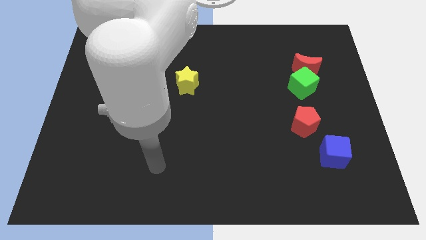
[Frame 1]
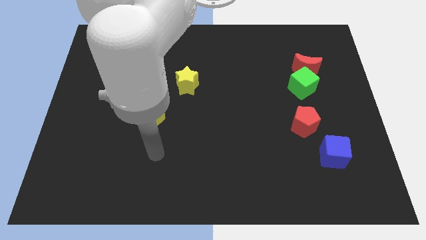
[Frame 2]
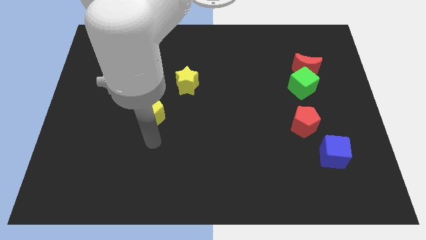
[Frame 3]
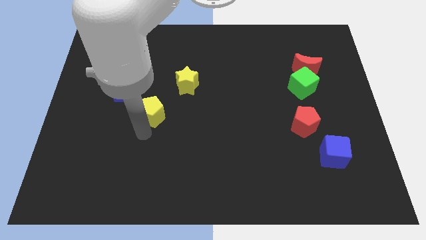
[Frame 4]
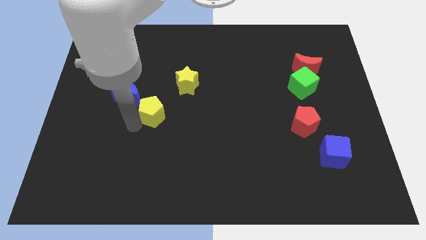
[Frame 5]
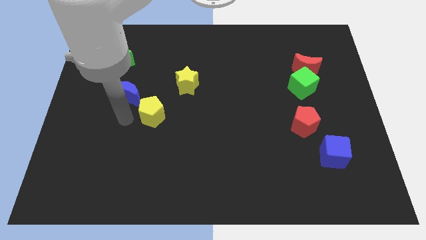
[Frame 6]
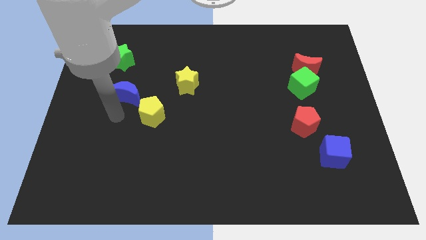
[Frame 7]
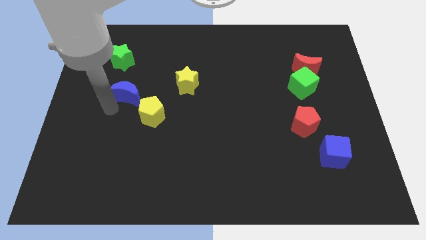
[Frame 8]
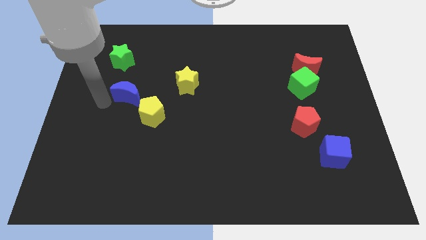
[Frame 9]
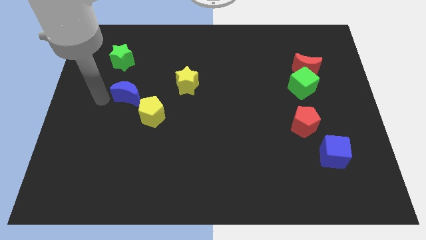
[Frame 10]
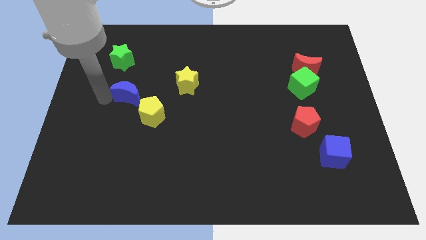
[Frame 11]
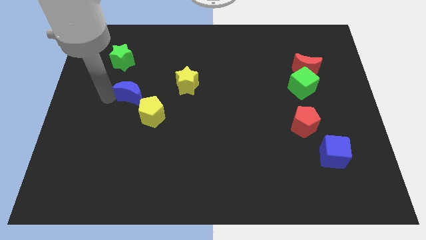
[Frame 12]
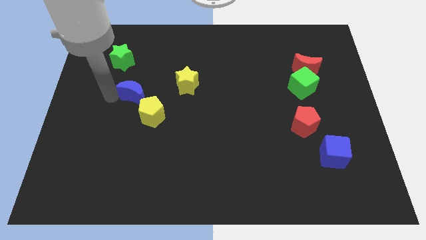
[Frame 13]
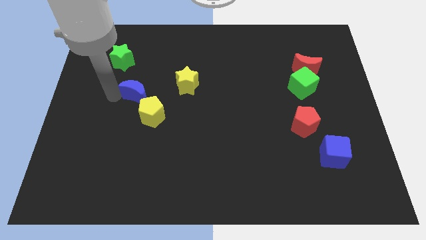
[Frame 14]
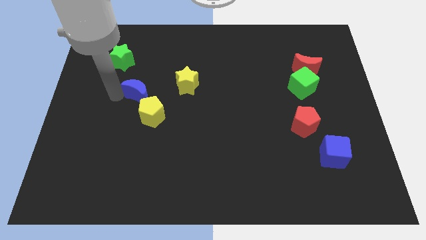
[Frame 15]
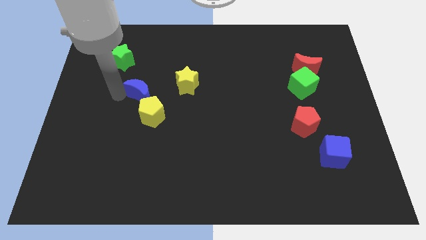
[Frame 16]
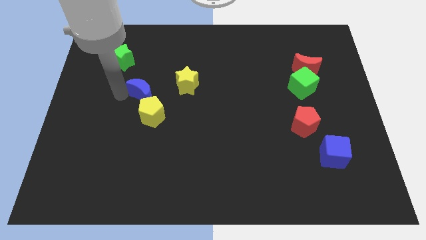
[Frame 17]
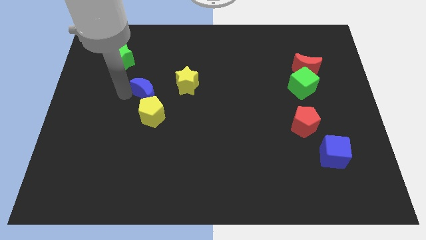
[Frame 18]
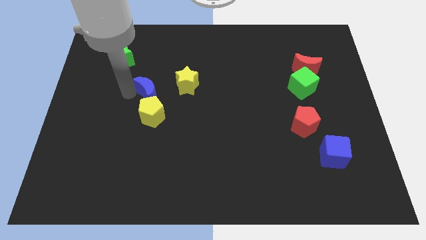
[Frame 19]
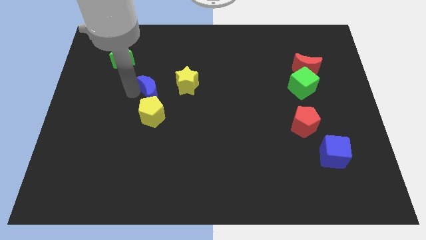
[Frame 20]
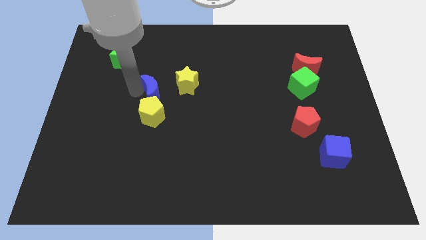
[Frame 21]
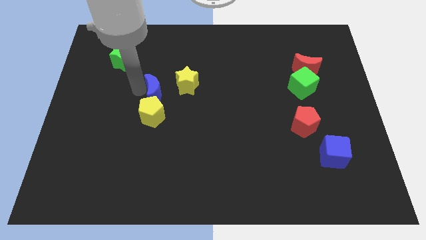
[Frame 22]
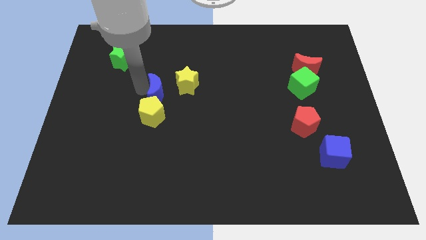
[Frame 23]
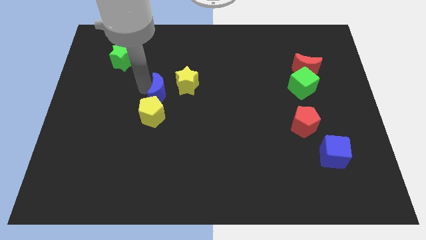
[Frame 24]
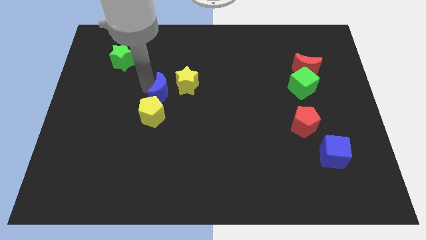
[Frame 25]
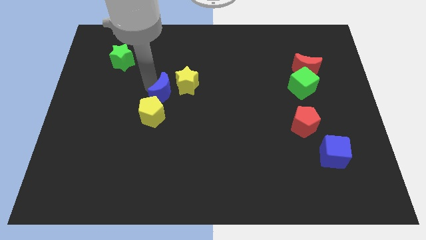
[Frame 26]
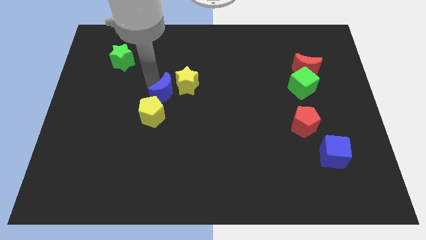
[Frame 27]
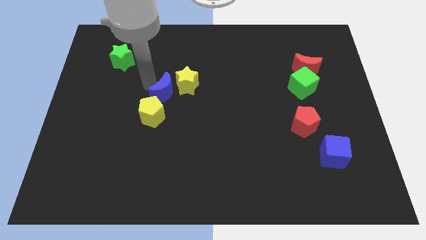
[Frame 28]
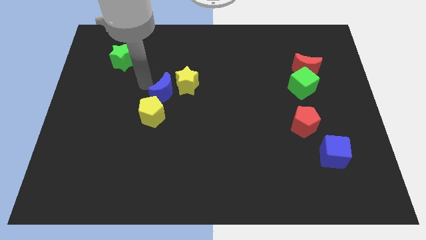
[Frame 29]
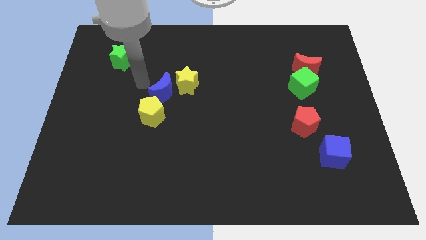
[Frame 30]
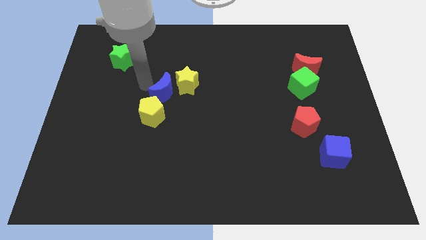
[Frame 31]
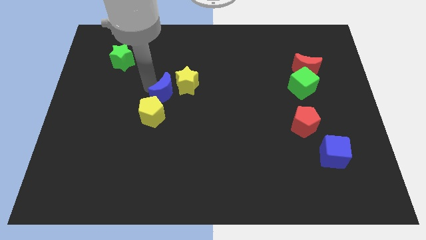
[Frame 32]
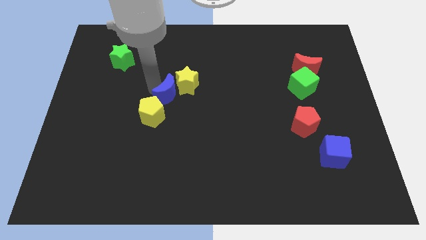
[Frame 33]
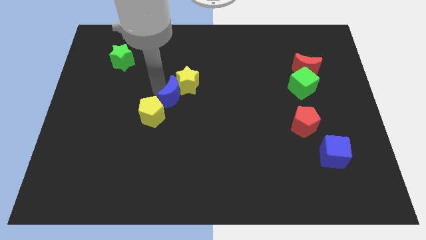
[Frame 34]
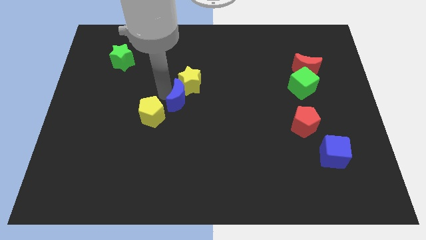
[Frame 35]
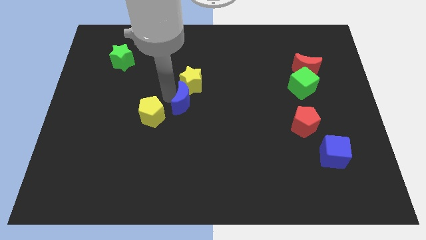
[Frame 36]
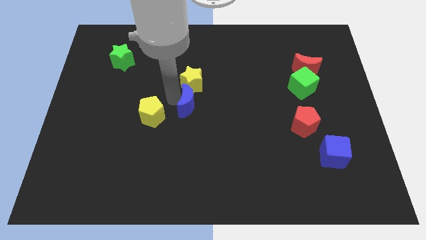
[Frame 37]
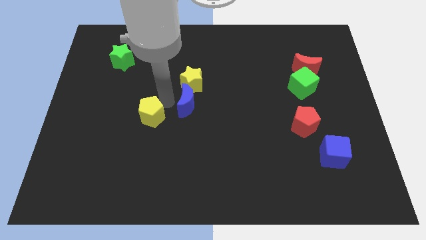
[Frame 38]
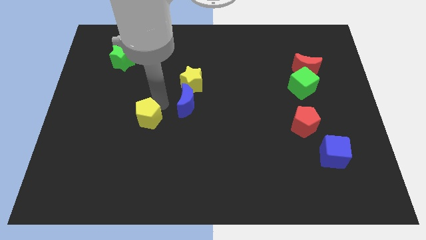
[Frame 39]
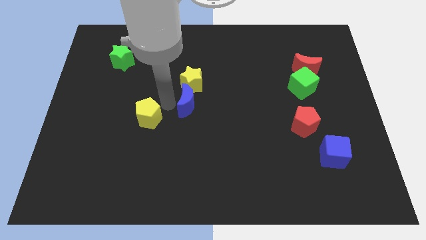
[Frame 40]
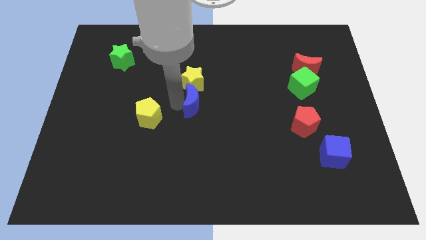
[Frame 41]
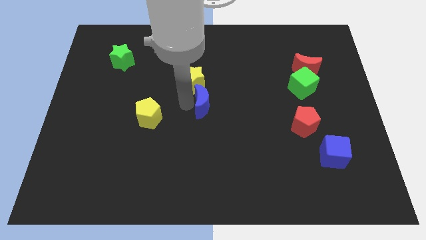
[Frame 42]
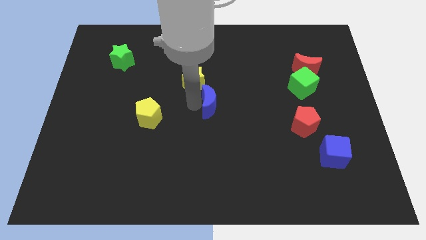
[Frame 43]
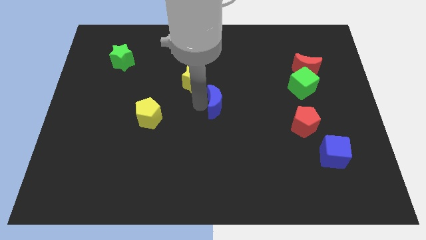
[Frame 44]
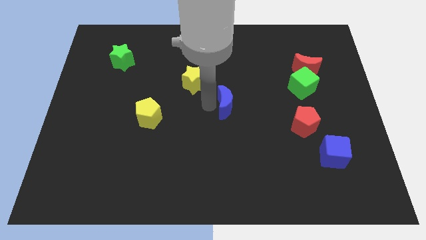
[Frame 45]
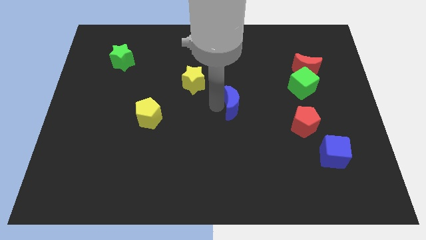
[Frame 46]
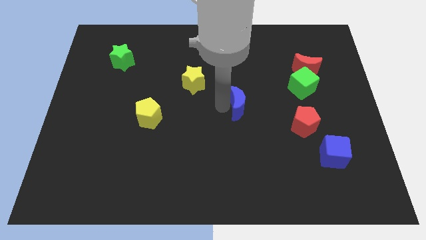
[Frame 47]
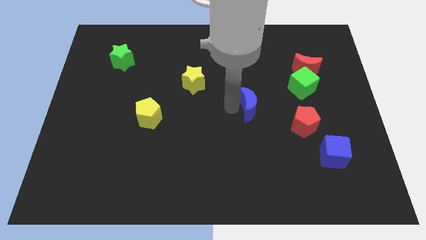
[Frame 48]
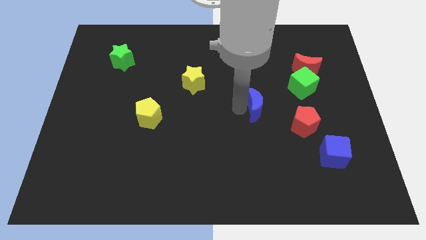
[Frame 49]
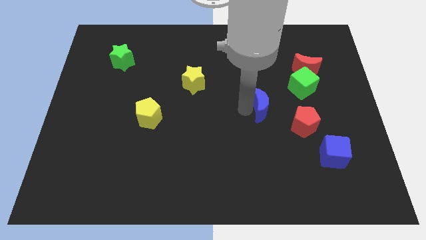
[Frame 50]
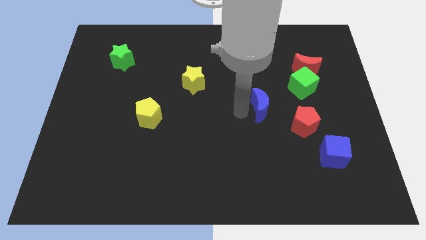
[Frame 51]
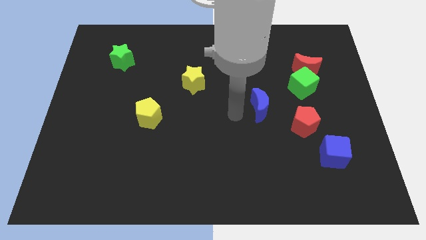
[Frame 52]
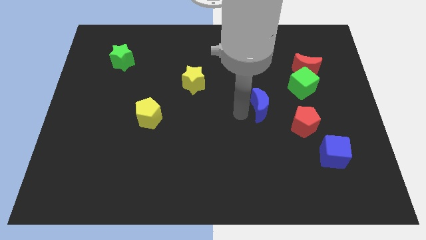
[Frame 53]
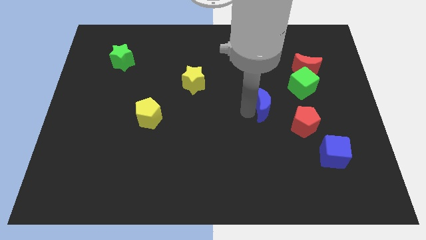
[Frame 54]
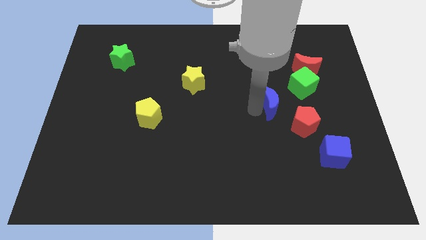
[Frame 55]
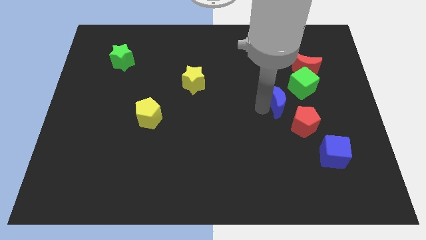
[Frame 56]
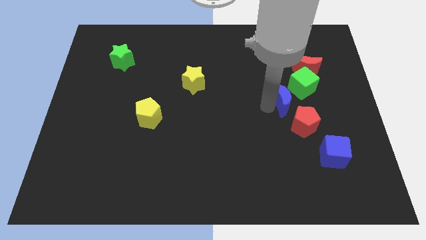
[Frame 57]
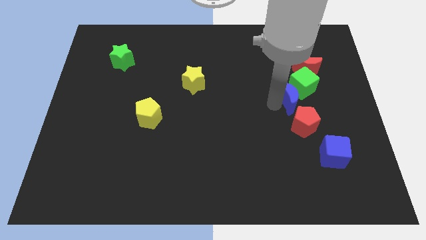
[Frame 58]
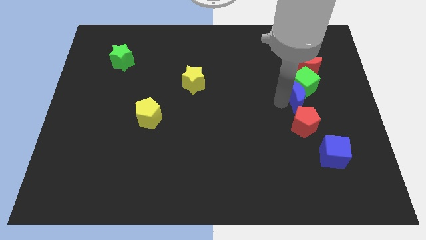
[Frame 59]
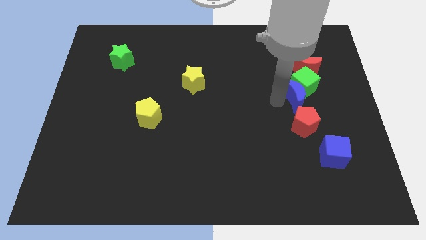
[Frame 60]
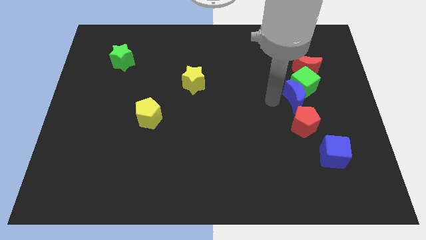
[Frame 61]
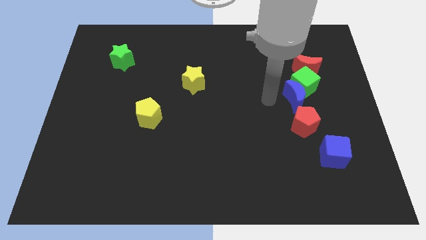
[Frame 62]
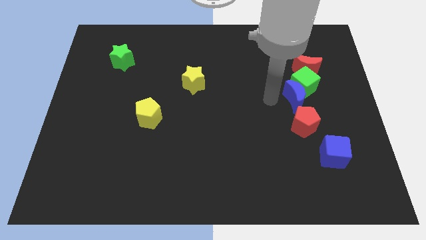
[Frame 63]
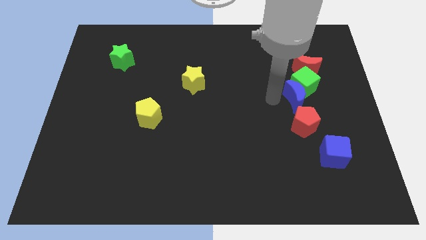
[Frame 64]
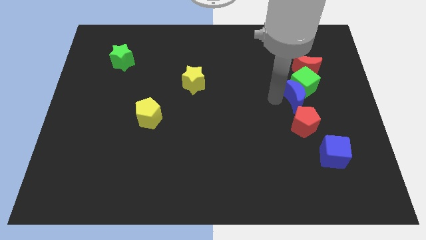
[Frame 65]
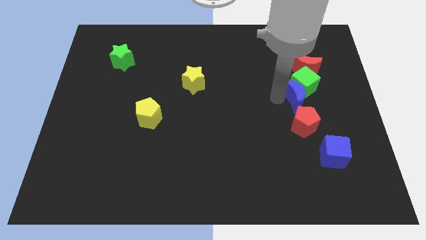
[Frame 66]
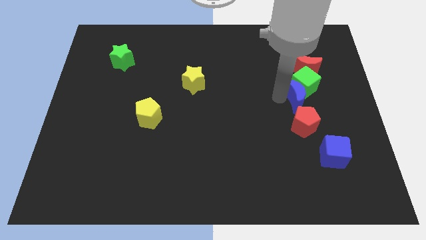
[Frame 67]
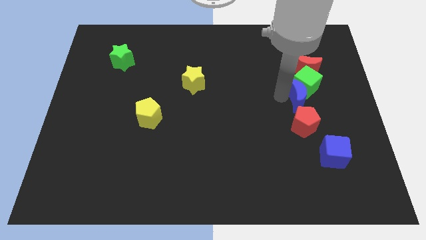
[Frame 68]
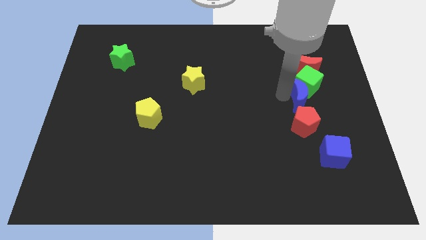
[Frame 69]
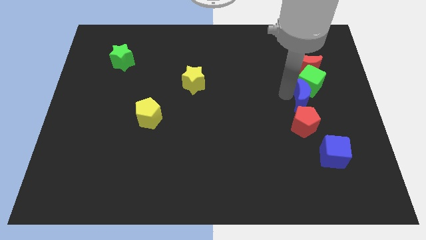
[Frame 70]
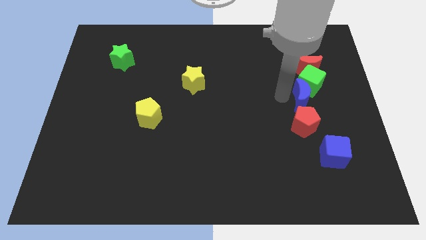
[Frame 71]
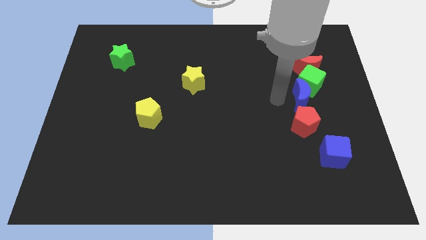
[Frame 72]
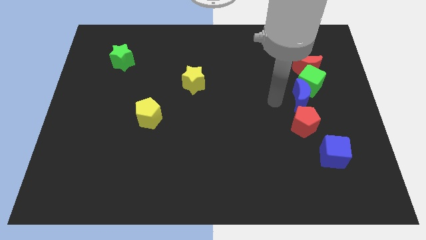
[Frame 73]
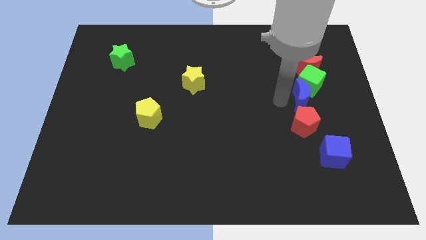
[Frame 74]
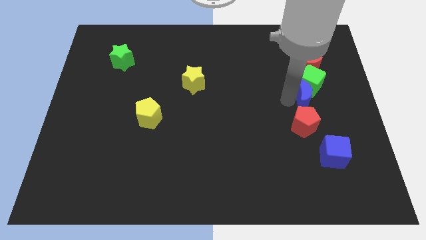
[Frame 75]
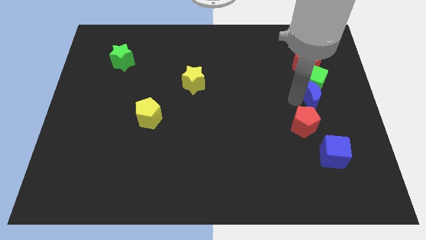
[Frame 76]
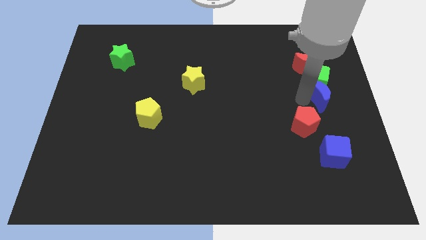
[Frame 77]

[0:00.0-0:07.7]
put the blue moon to the center right
